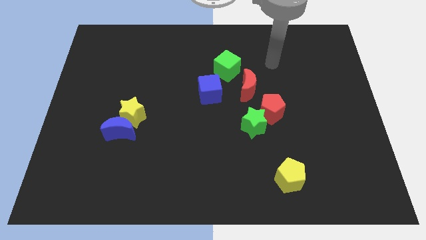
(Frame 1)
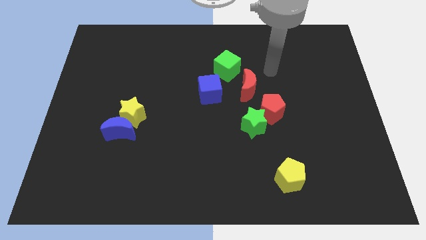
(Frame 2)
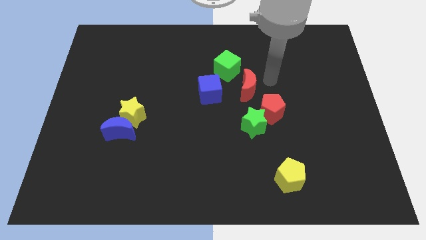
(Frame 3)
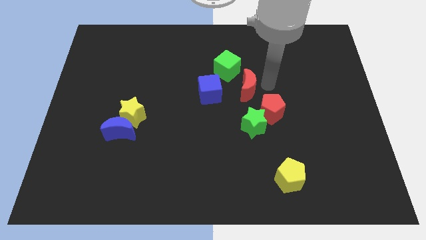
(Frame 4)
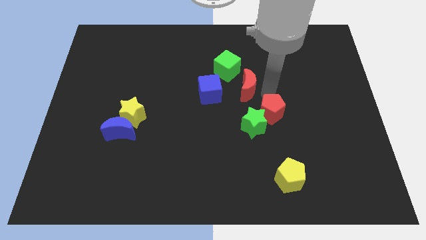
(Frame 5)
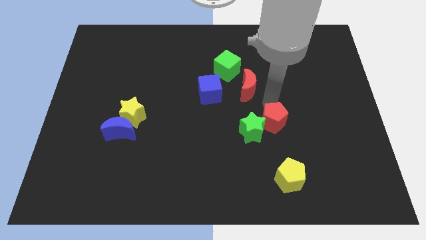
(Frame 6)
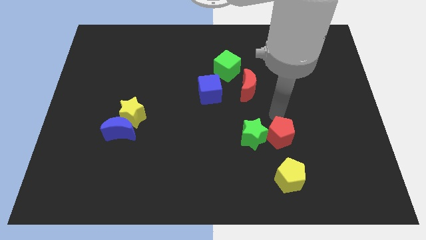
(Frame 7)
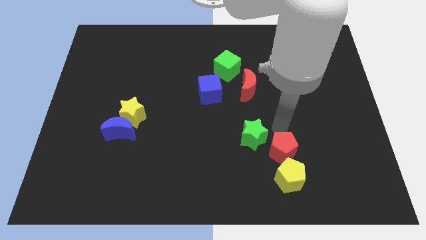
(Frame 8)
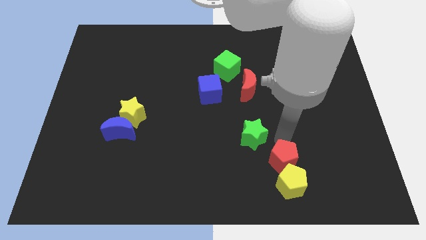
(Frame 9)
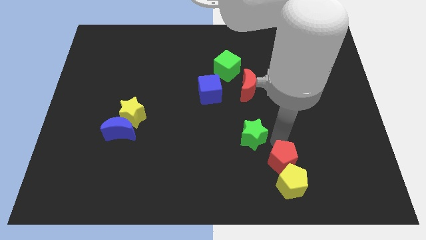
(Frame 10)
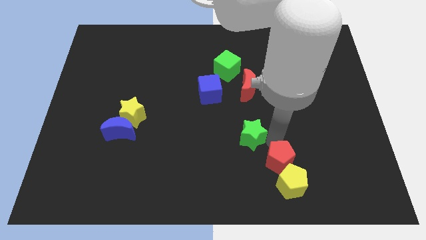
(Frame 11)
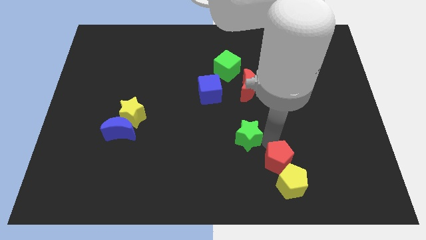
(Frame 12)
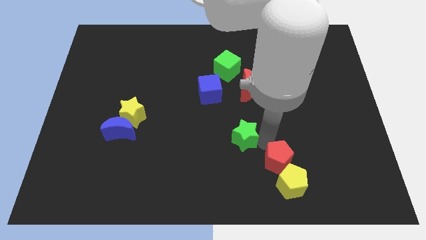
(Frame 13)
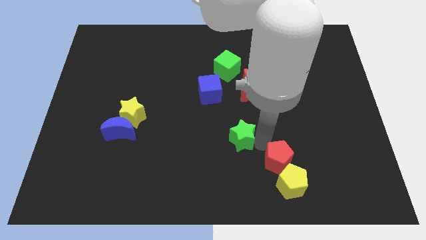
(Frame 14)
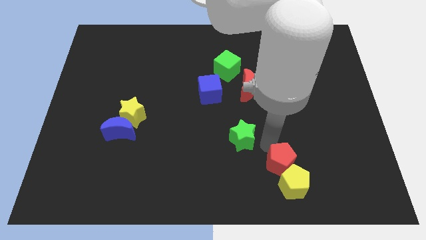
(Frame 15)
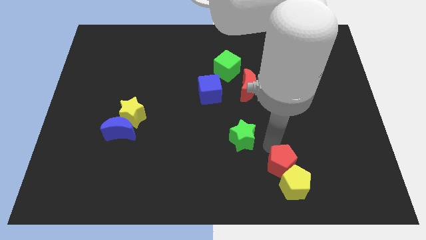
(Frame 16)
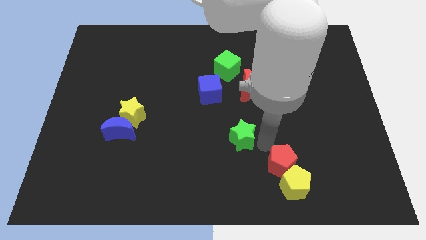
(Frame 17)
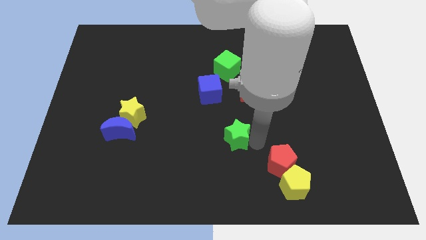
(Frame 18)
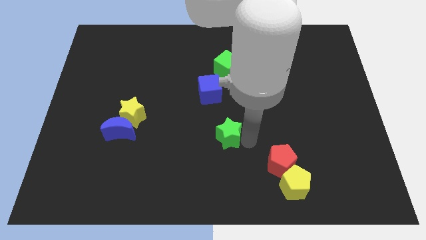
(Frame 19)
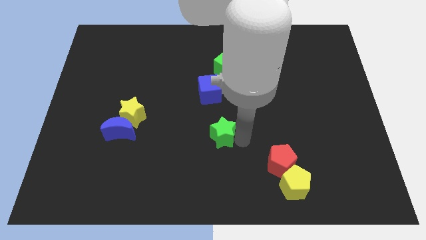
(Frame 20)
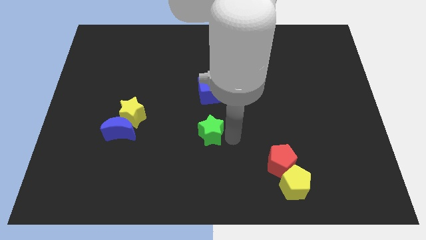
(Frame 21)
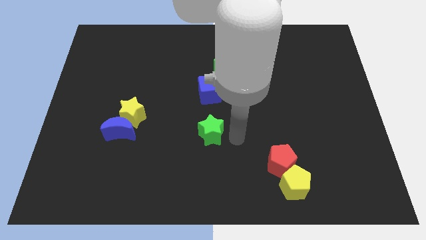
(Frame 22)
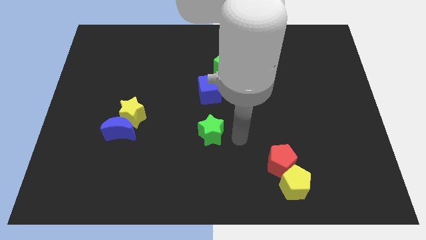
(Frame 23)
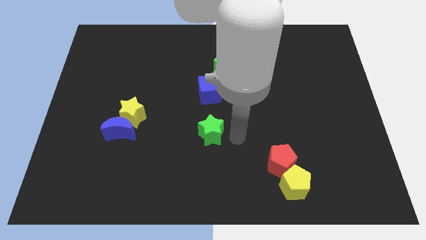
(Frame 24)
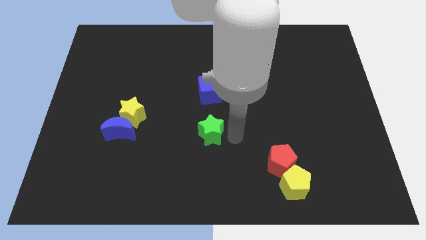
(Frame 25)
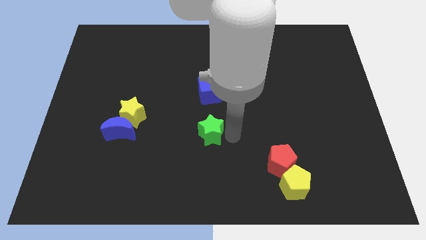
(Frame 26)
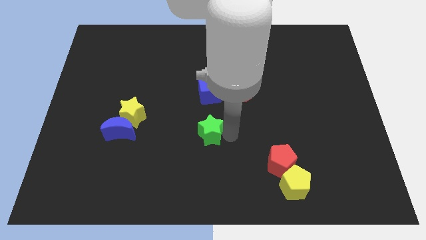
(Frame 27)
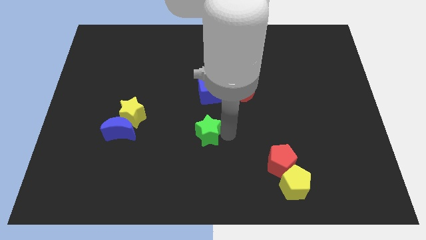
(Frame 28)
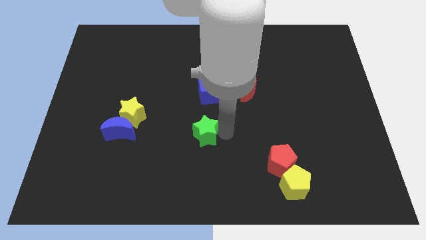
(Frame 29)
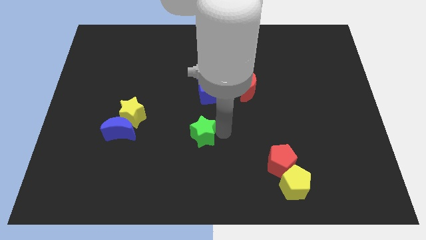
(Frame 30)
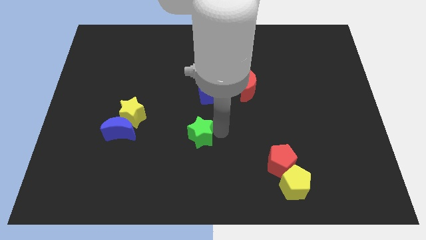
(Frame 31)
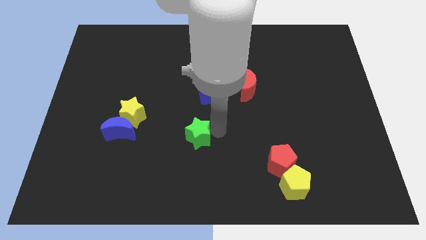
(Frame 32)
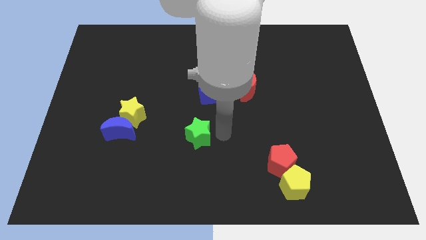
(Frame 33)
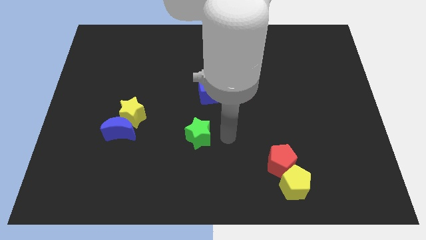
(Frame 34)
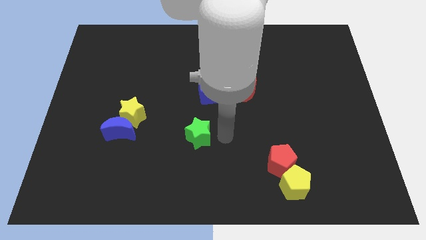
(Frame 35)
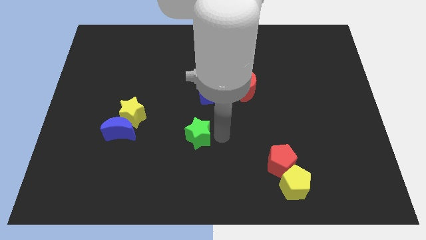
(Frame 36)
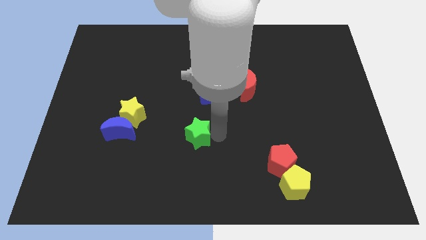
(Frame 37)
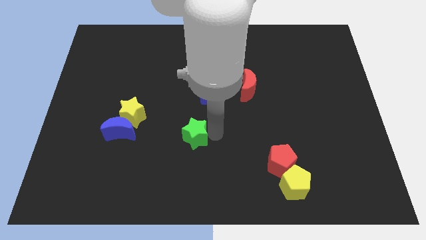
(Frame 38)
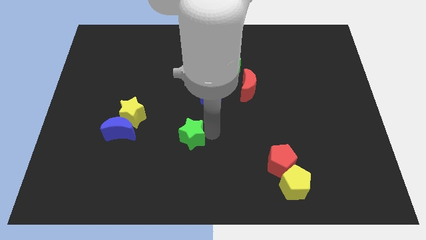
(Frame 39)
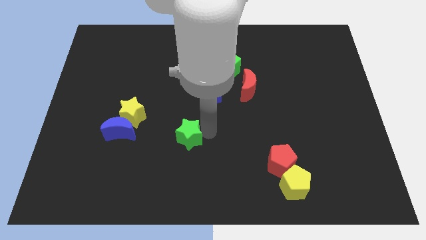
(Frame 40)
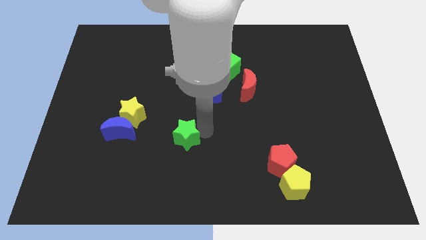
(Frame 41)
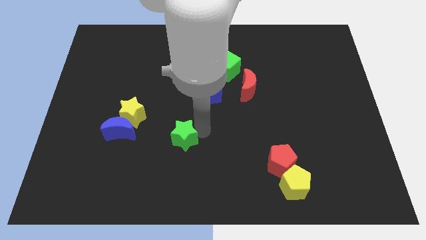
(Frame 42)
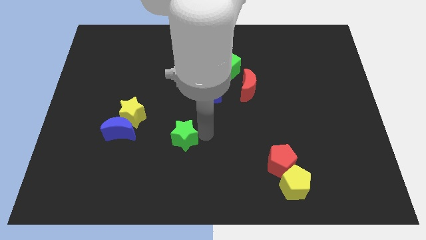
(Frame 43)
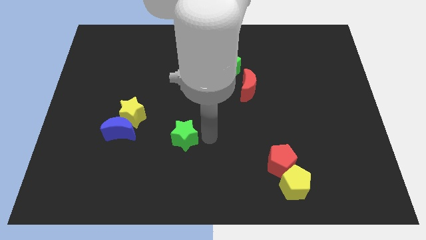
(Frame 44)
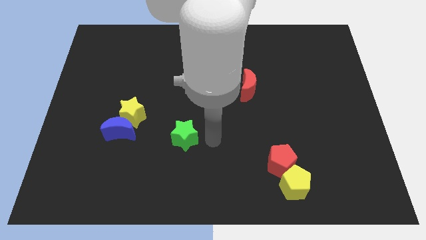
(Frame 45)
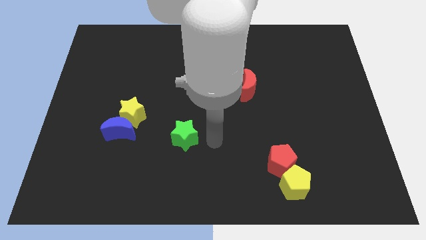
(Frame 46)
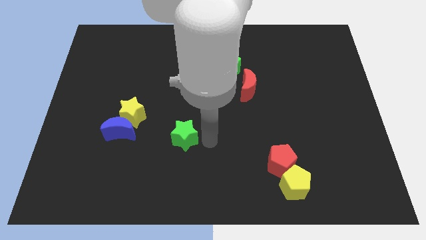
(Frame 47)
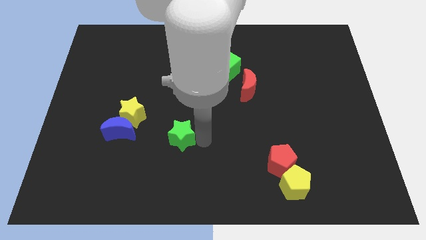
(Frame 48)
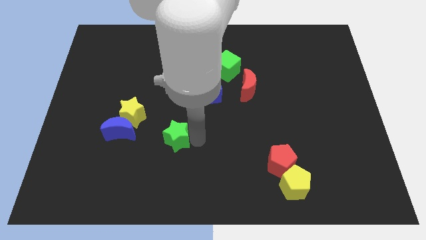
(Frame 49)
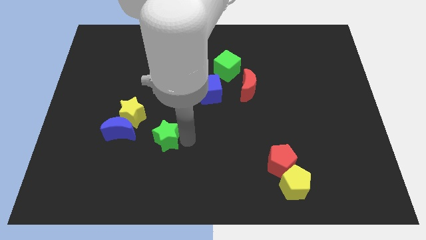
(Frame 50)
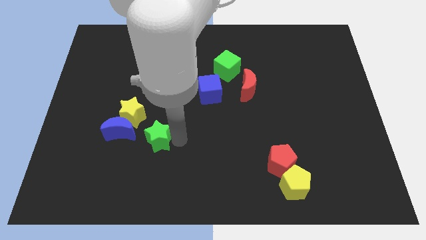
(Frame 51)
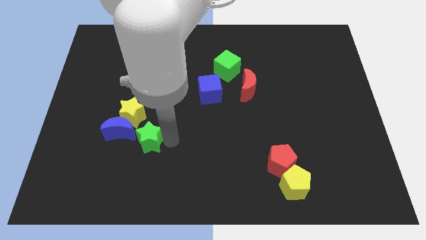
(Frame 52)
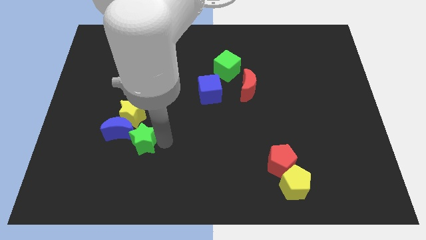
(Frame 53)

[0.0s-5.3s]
slide the green star close to the blue moon

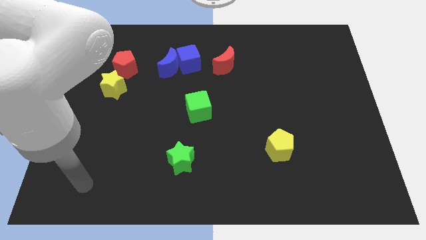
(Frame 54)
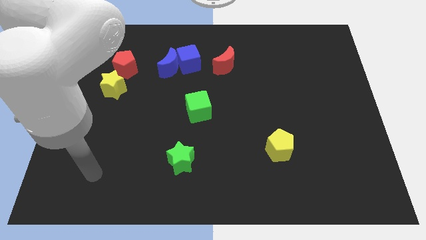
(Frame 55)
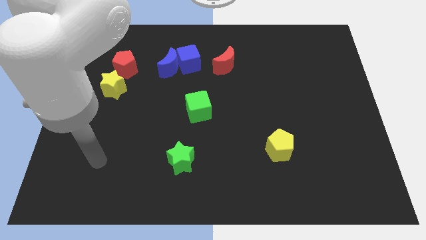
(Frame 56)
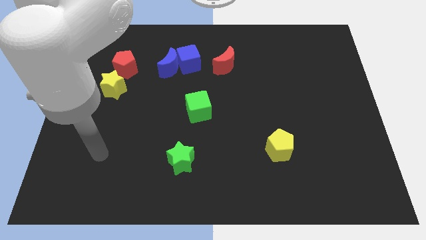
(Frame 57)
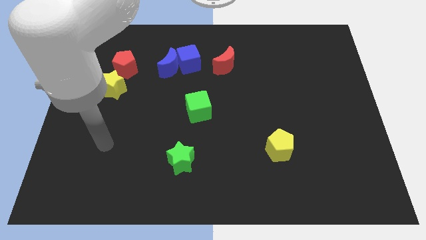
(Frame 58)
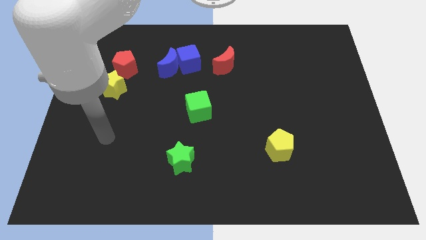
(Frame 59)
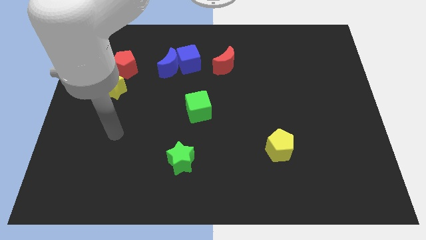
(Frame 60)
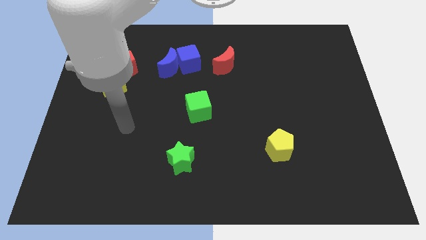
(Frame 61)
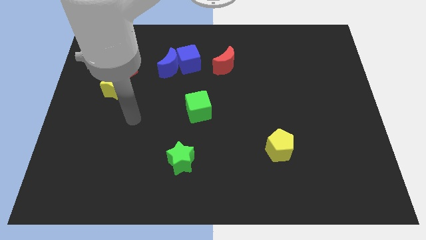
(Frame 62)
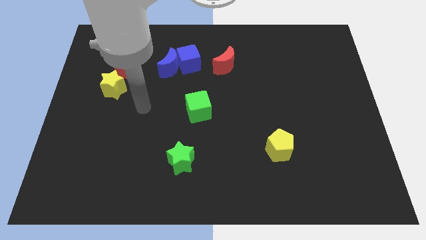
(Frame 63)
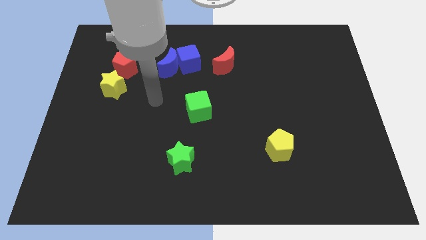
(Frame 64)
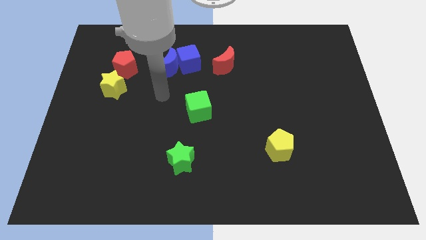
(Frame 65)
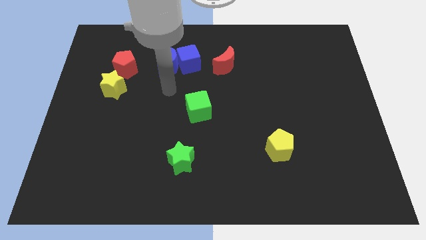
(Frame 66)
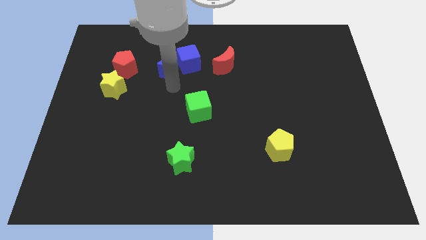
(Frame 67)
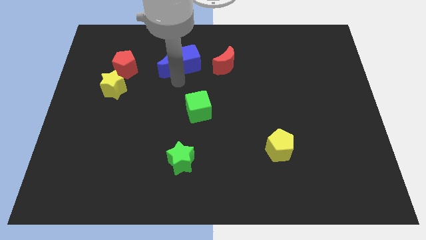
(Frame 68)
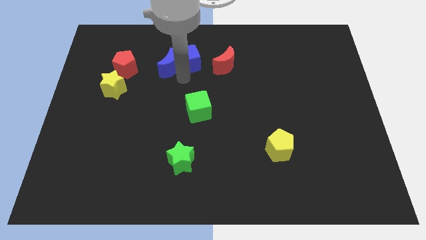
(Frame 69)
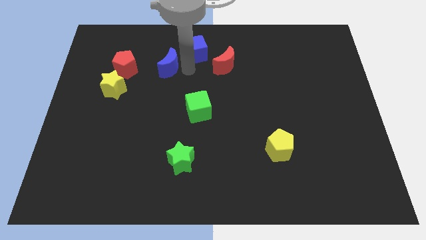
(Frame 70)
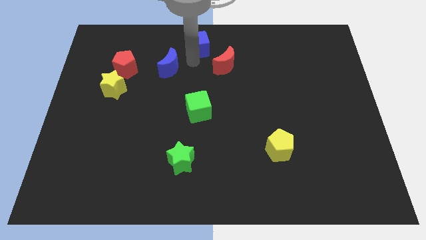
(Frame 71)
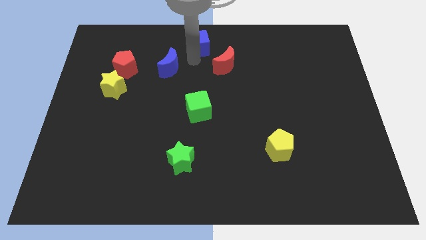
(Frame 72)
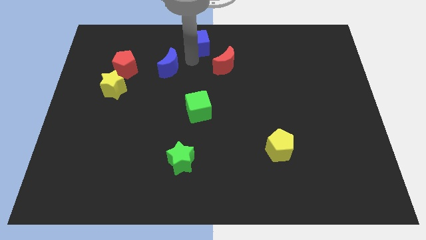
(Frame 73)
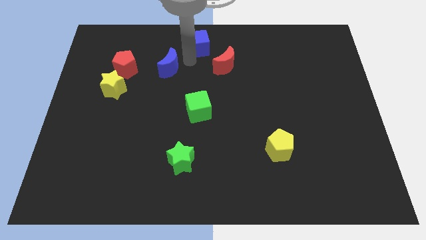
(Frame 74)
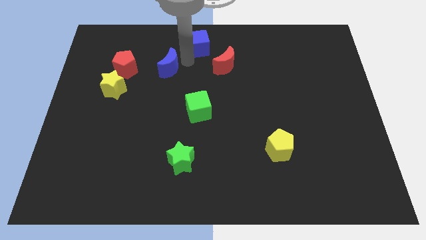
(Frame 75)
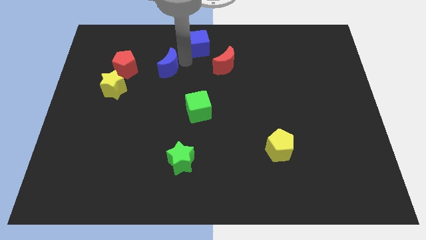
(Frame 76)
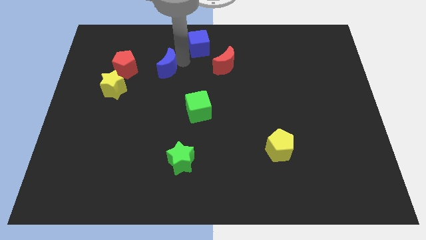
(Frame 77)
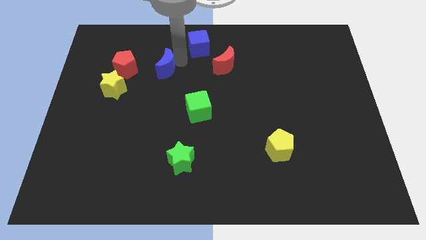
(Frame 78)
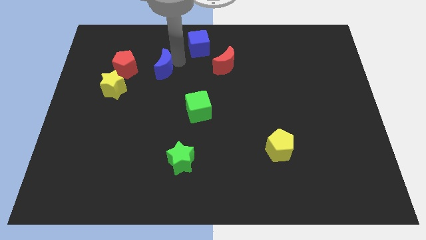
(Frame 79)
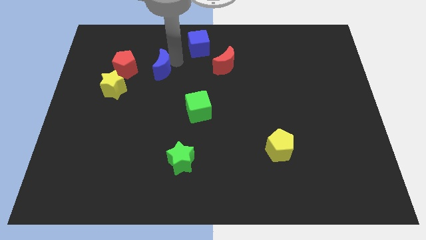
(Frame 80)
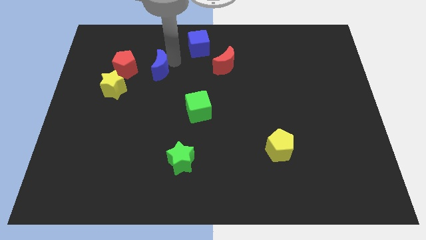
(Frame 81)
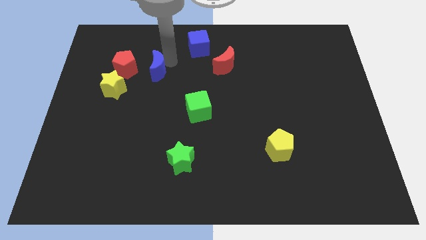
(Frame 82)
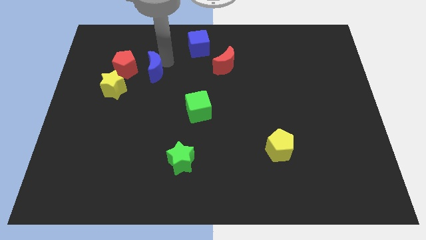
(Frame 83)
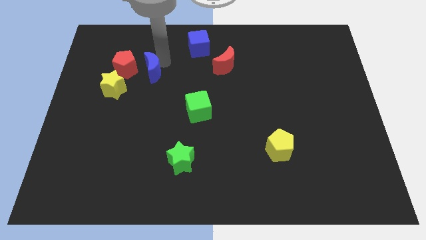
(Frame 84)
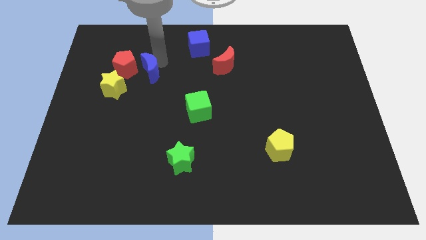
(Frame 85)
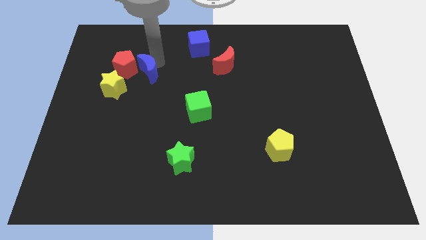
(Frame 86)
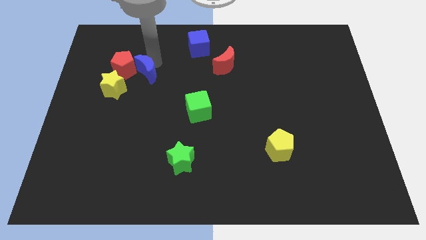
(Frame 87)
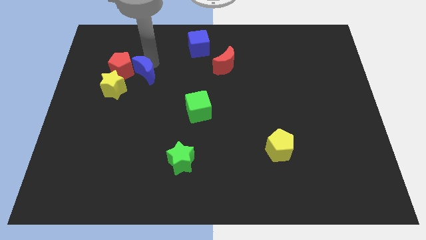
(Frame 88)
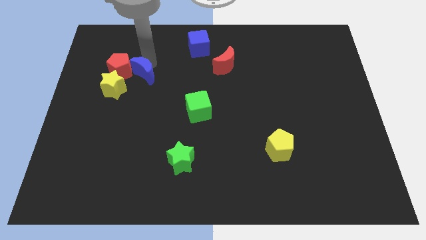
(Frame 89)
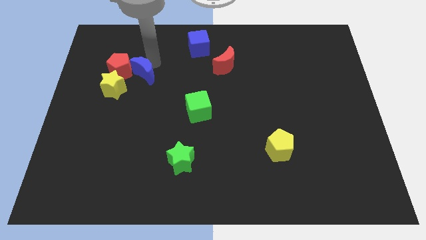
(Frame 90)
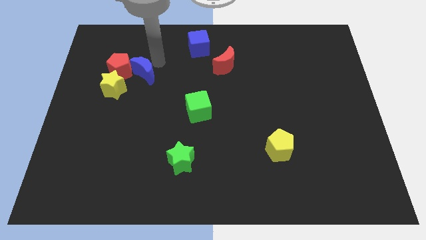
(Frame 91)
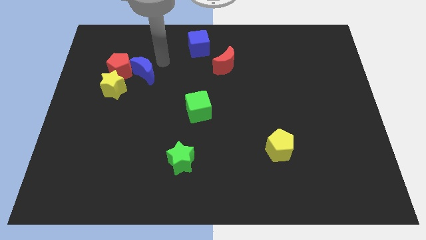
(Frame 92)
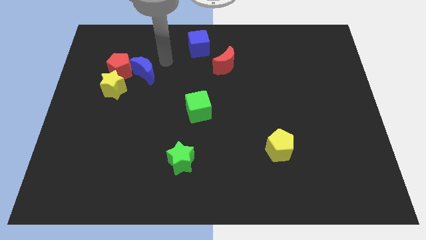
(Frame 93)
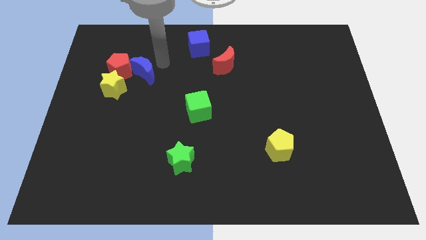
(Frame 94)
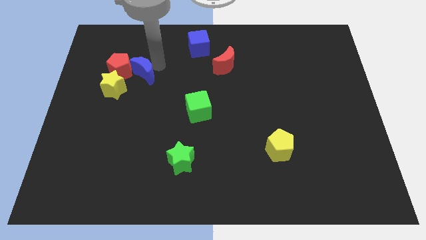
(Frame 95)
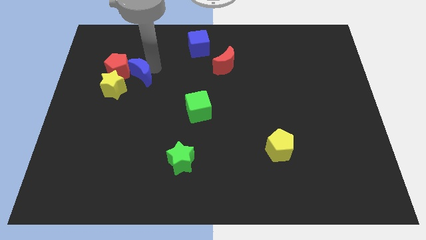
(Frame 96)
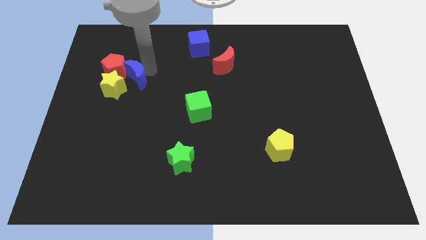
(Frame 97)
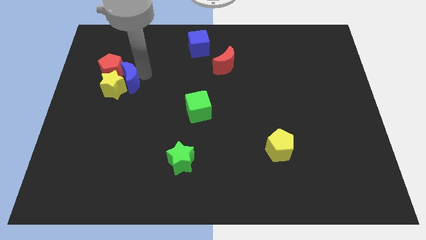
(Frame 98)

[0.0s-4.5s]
slide the blue moon close to the yellow star
